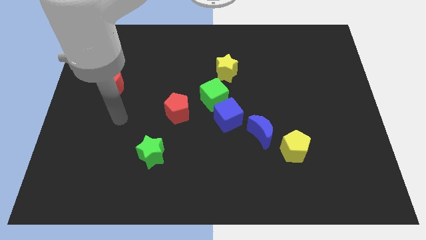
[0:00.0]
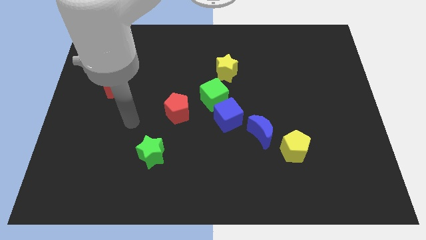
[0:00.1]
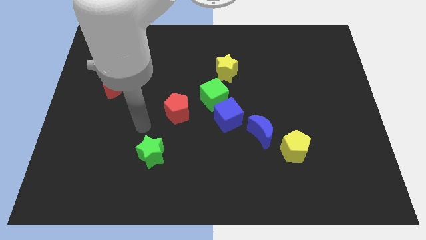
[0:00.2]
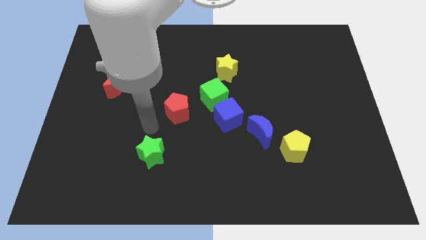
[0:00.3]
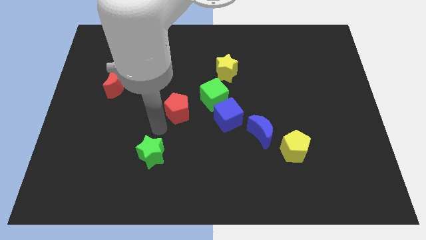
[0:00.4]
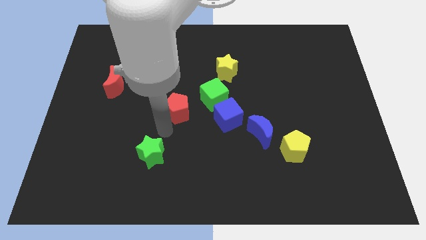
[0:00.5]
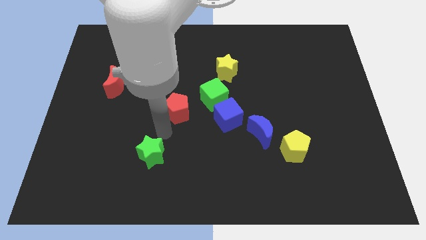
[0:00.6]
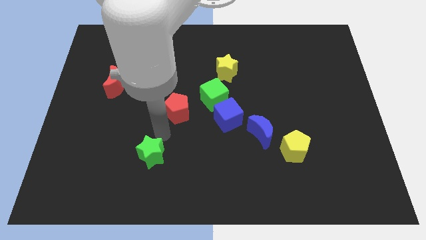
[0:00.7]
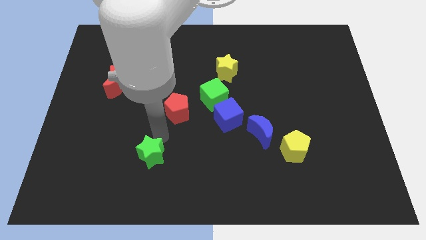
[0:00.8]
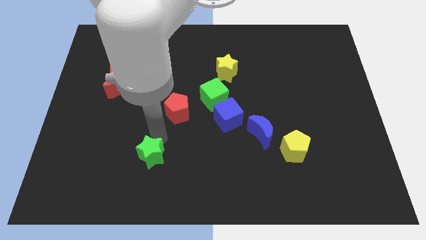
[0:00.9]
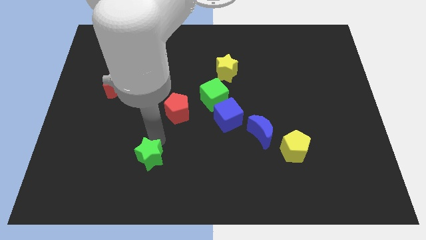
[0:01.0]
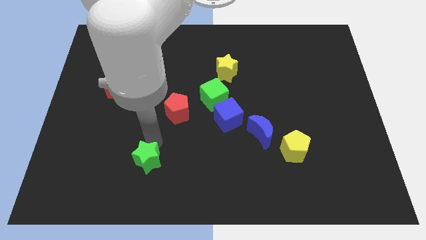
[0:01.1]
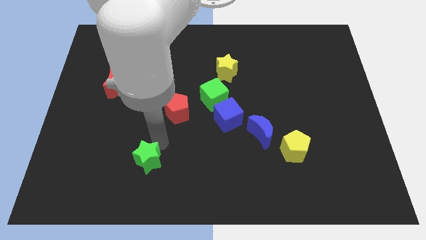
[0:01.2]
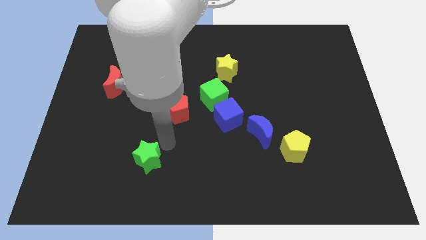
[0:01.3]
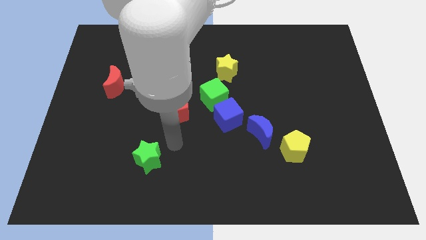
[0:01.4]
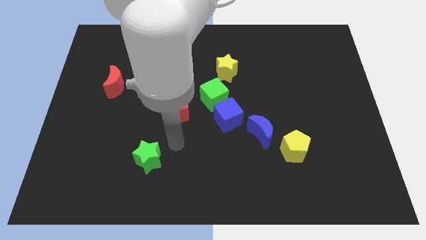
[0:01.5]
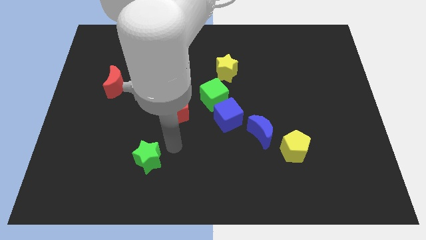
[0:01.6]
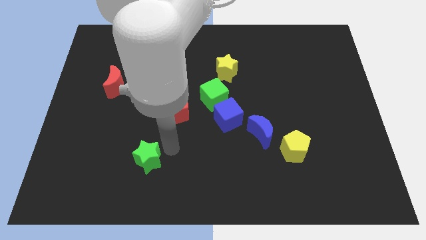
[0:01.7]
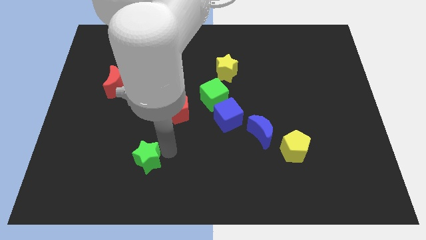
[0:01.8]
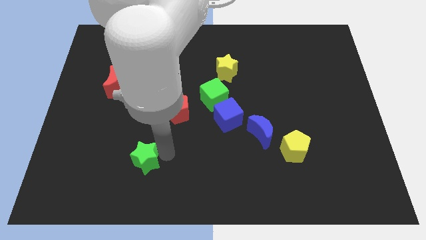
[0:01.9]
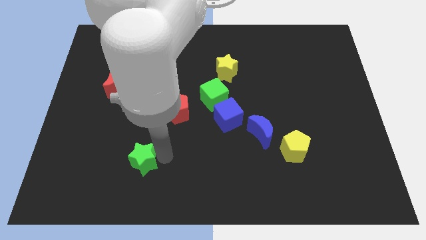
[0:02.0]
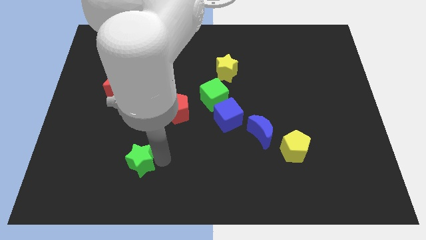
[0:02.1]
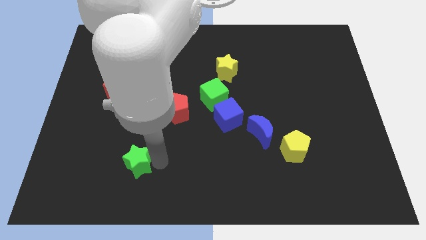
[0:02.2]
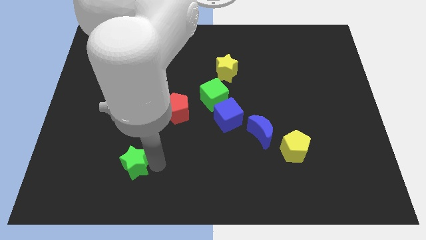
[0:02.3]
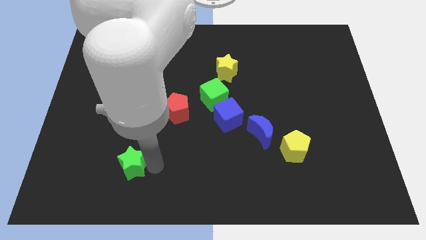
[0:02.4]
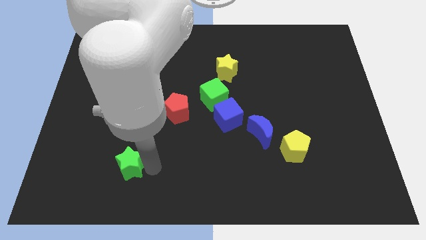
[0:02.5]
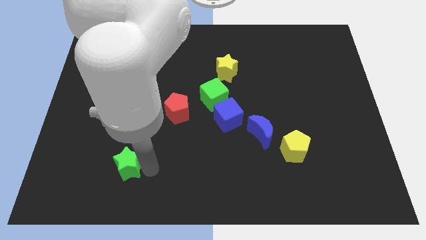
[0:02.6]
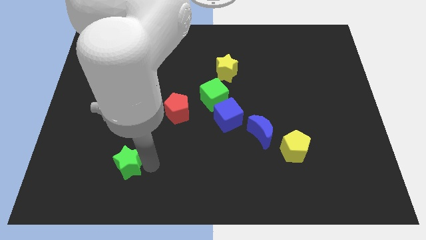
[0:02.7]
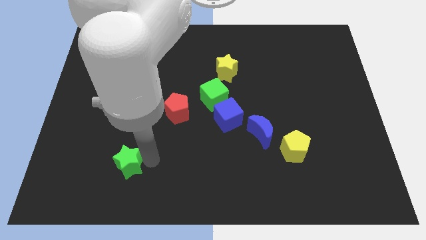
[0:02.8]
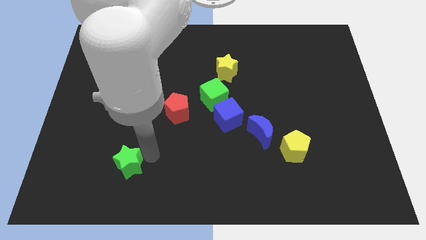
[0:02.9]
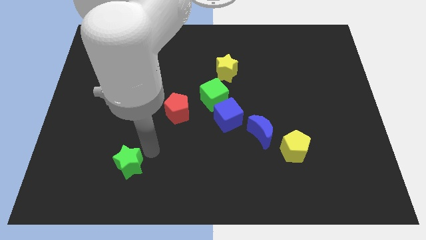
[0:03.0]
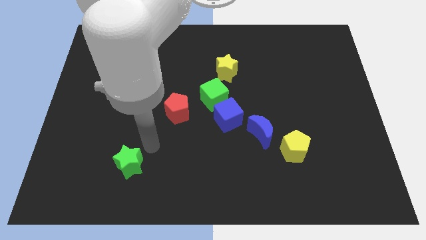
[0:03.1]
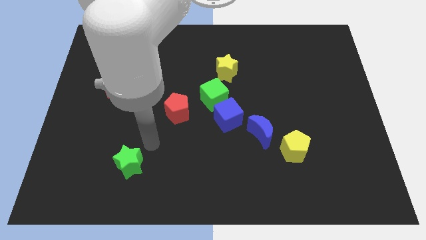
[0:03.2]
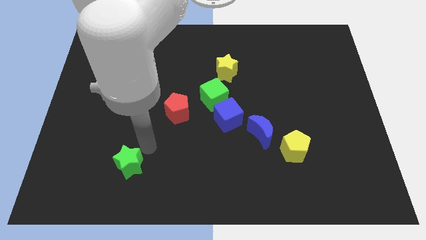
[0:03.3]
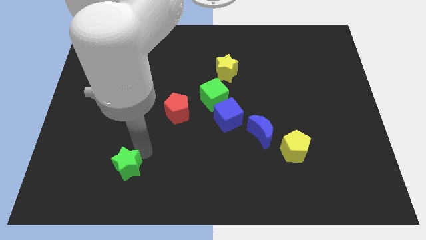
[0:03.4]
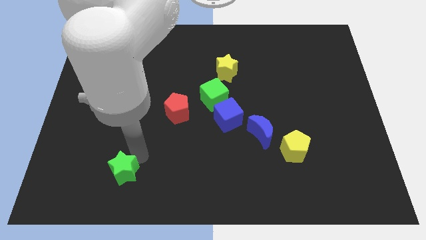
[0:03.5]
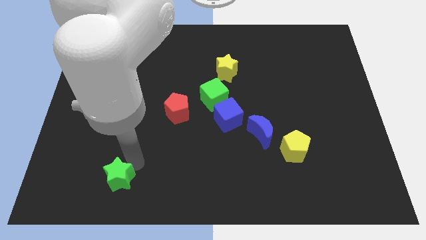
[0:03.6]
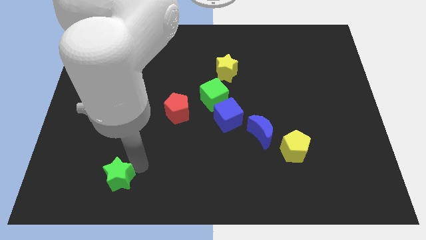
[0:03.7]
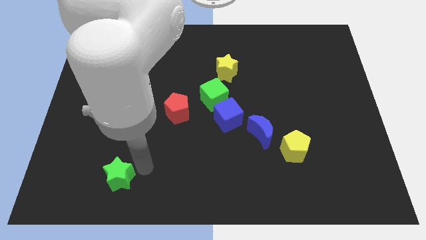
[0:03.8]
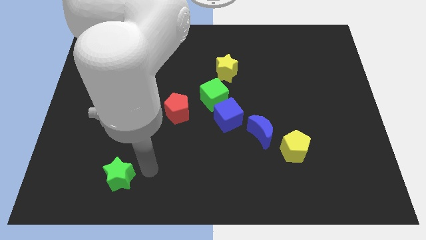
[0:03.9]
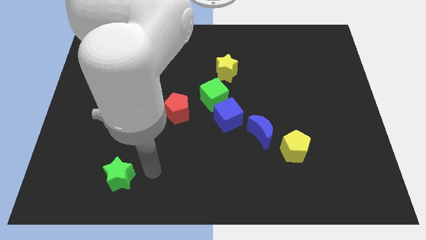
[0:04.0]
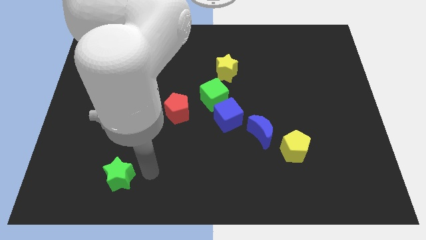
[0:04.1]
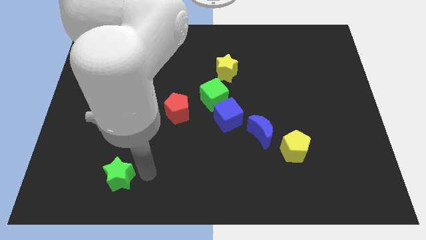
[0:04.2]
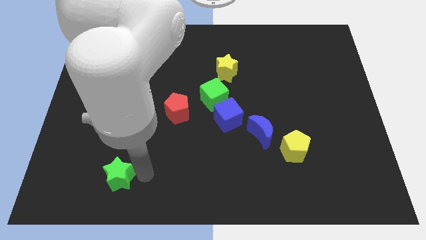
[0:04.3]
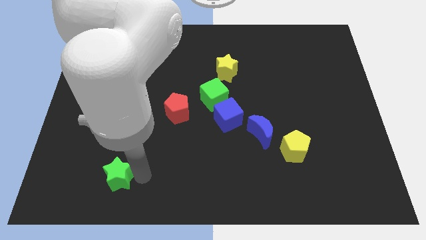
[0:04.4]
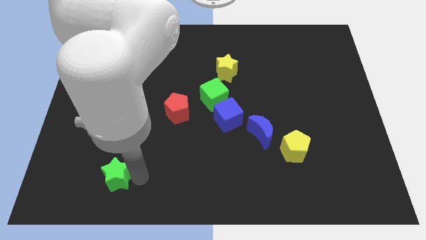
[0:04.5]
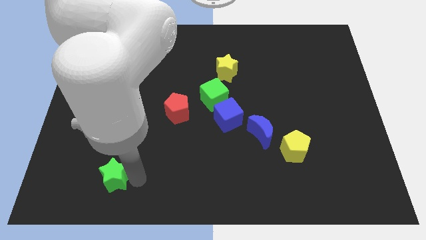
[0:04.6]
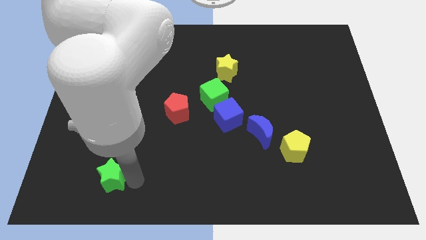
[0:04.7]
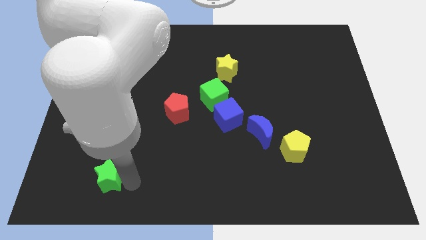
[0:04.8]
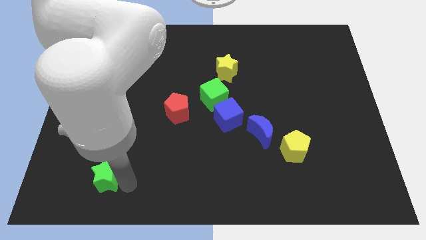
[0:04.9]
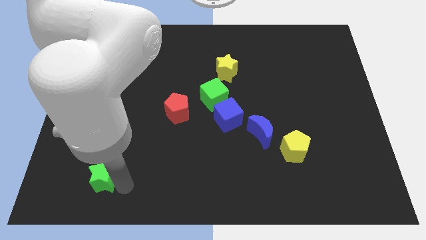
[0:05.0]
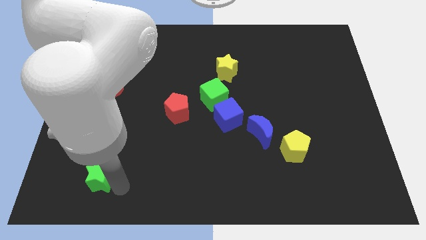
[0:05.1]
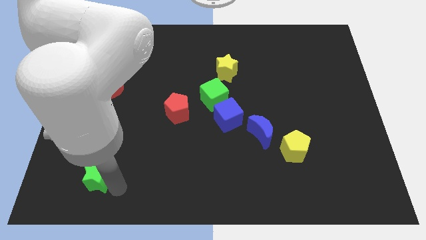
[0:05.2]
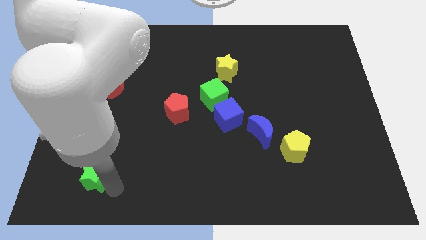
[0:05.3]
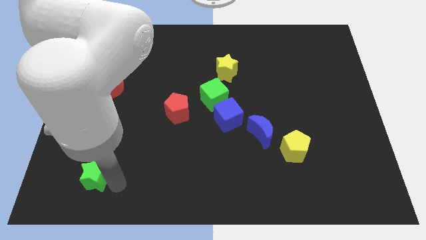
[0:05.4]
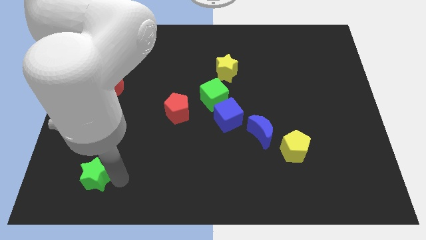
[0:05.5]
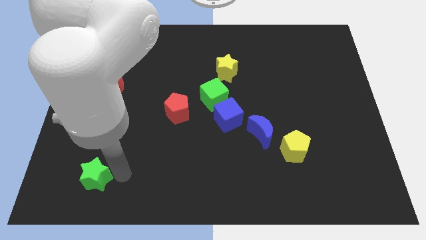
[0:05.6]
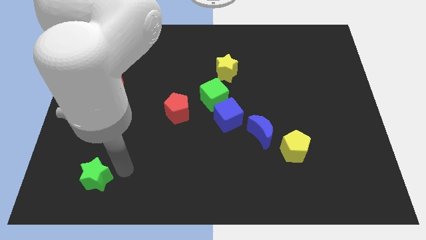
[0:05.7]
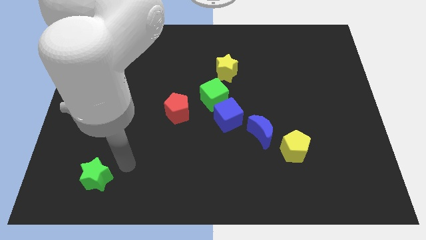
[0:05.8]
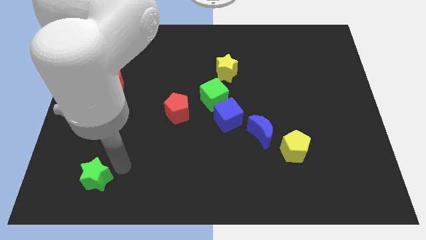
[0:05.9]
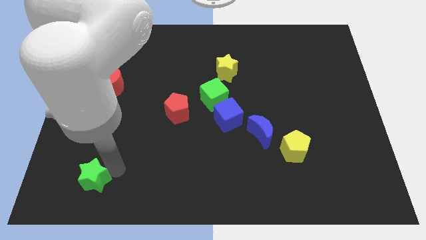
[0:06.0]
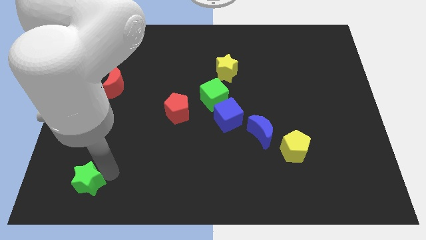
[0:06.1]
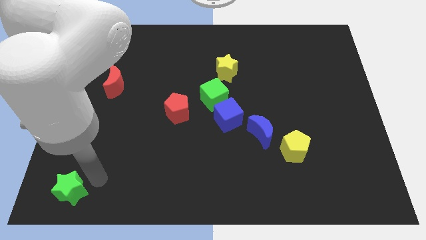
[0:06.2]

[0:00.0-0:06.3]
slide the green star to the bottom left

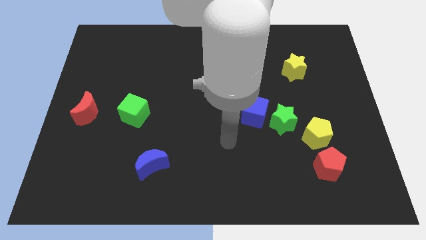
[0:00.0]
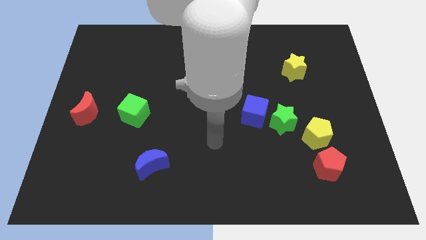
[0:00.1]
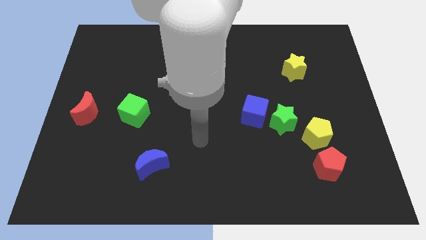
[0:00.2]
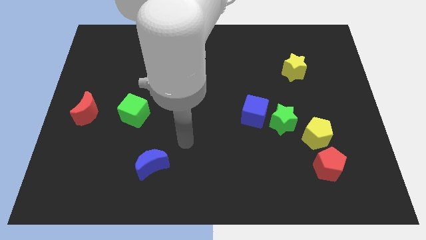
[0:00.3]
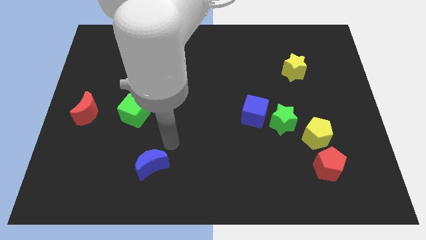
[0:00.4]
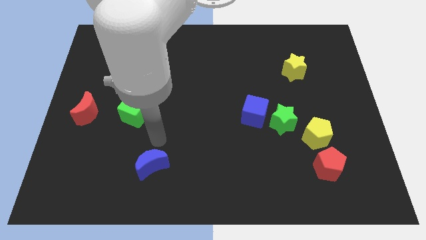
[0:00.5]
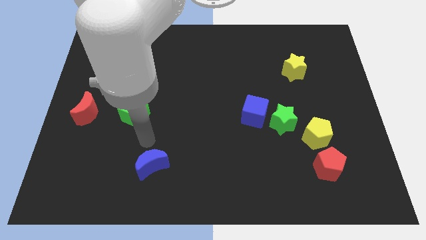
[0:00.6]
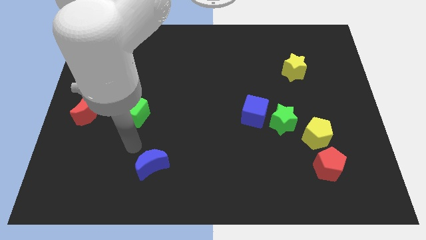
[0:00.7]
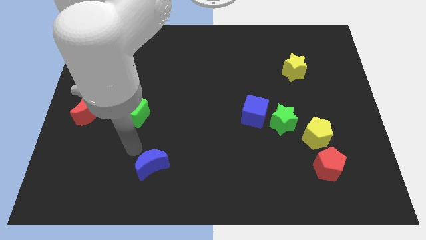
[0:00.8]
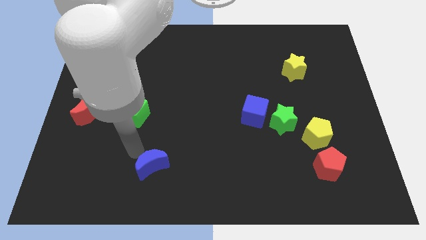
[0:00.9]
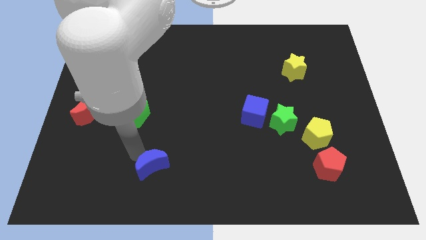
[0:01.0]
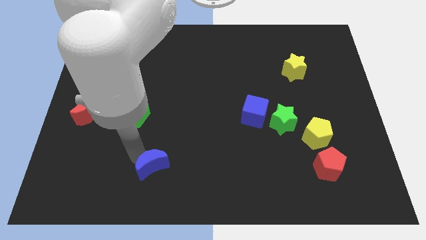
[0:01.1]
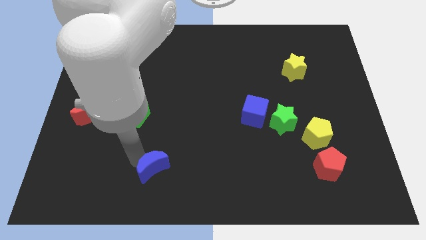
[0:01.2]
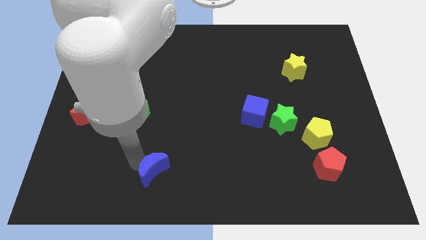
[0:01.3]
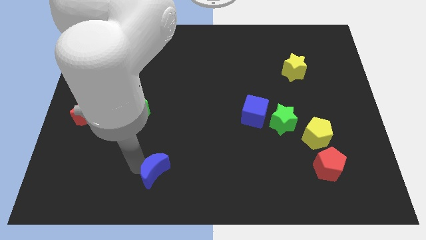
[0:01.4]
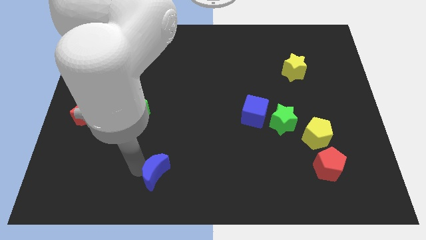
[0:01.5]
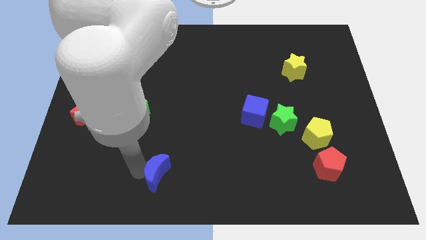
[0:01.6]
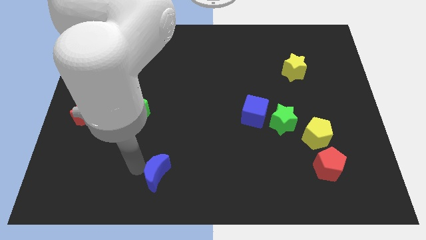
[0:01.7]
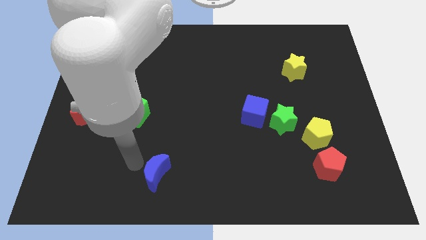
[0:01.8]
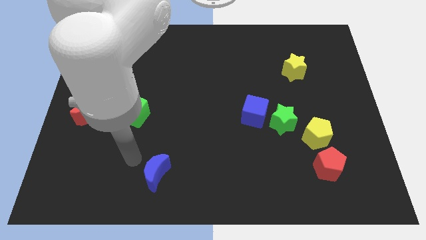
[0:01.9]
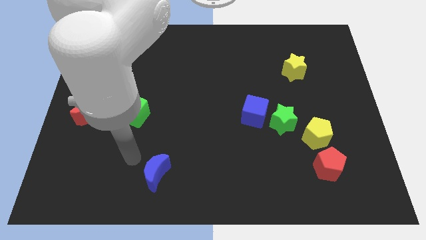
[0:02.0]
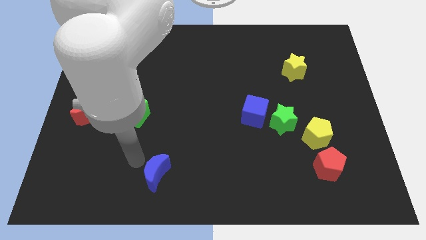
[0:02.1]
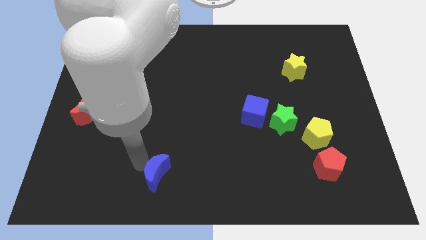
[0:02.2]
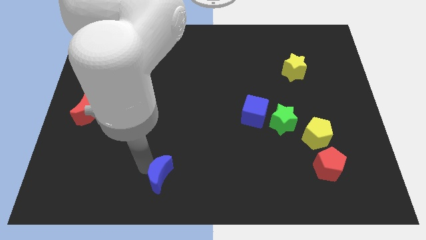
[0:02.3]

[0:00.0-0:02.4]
slide the blue moon to the bottom
